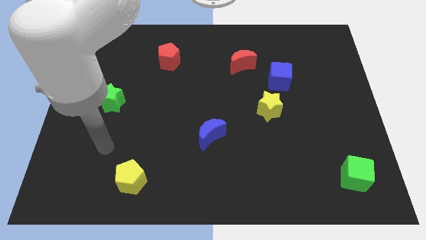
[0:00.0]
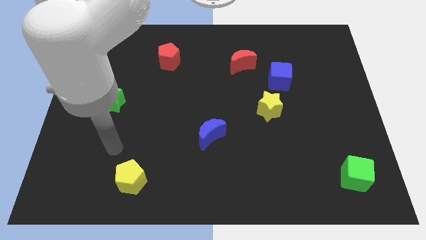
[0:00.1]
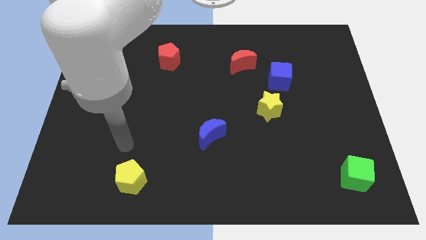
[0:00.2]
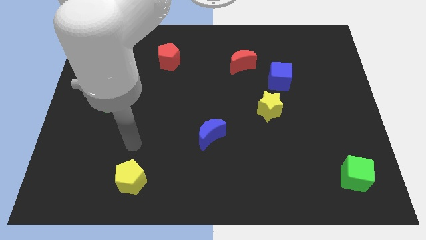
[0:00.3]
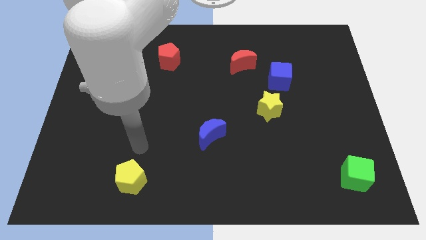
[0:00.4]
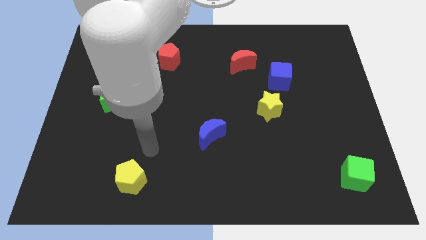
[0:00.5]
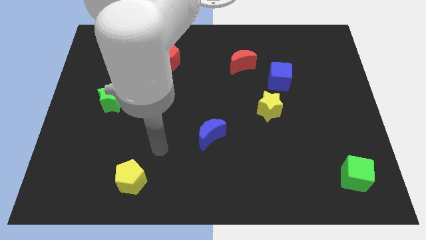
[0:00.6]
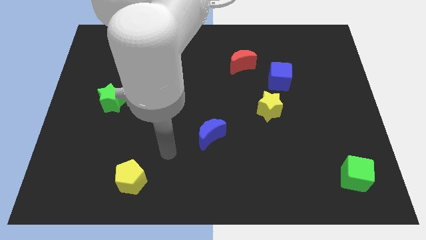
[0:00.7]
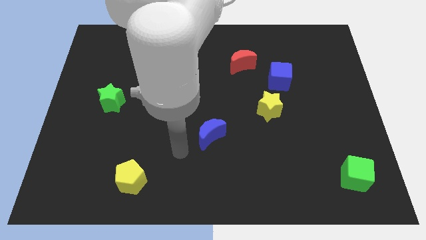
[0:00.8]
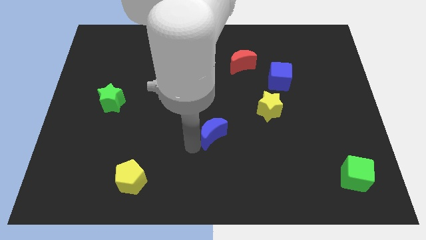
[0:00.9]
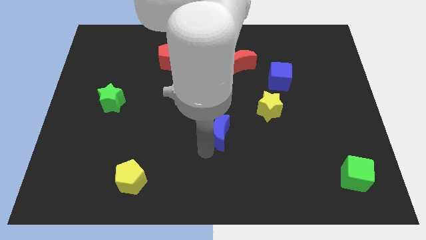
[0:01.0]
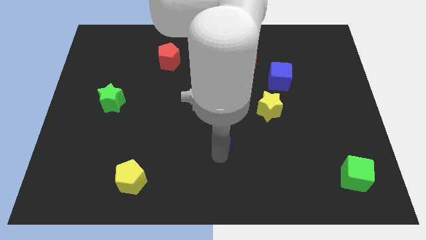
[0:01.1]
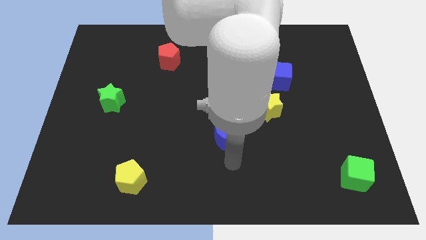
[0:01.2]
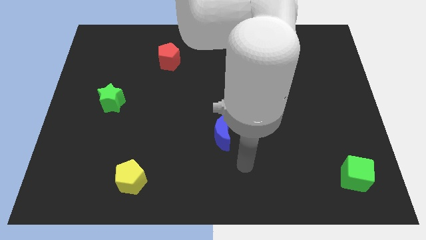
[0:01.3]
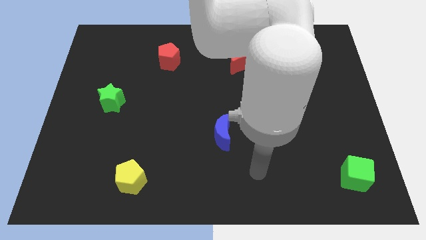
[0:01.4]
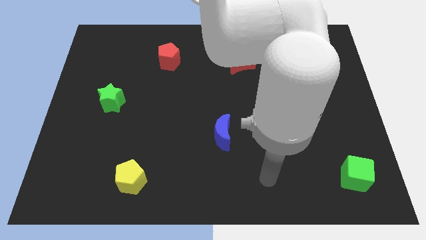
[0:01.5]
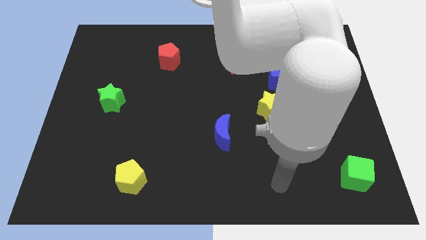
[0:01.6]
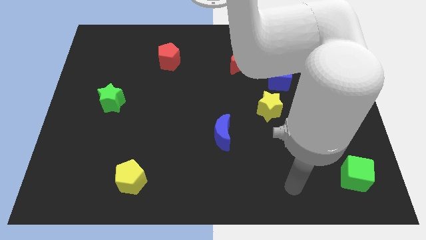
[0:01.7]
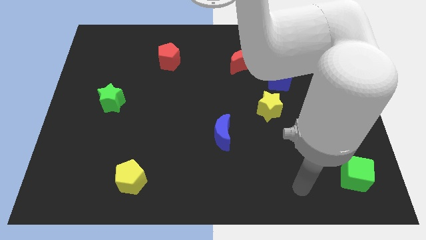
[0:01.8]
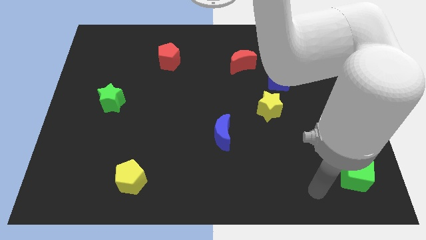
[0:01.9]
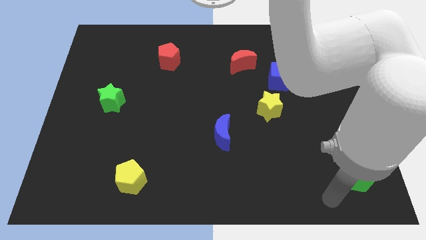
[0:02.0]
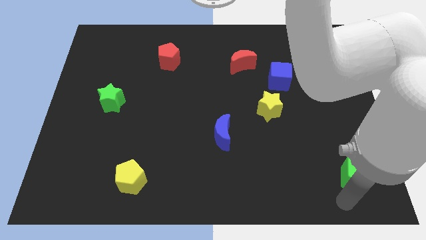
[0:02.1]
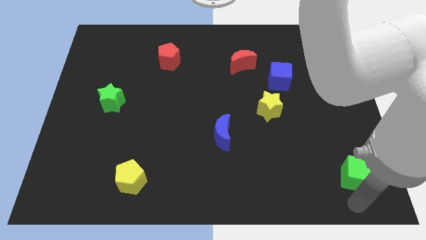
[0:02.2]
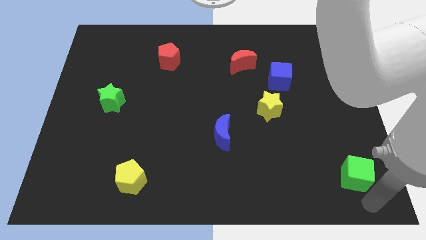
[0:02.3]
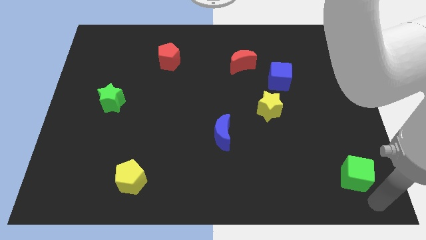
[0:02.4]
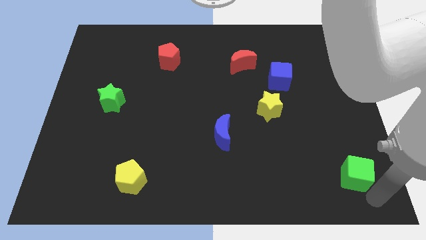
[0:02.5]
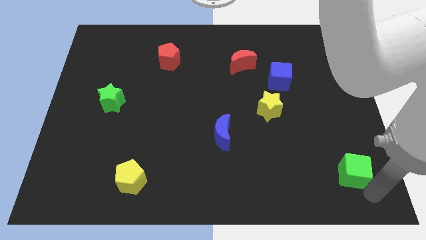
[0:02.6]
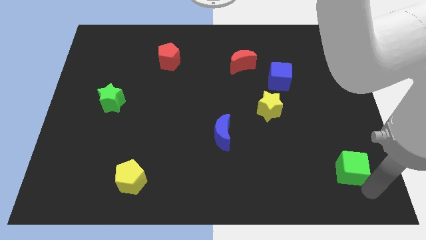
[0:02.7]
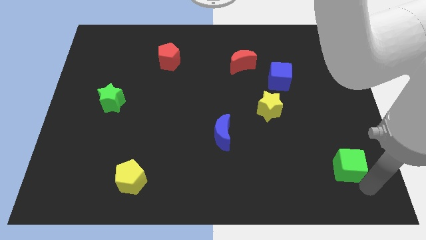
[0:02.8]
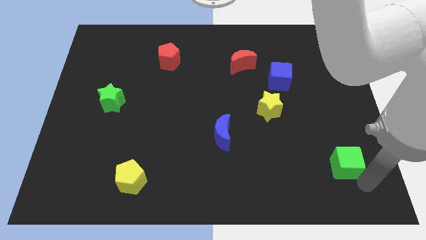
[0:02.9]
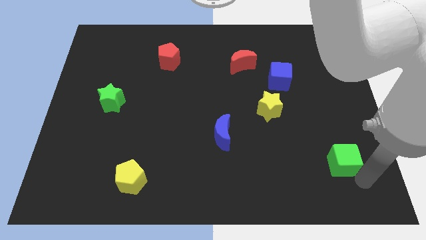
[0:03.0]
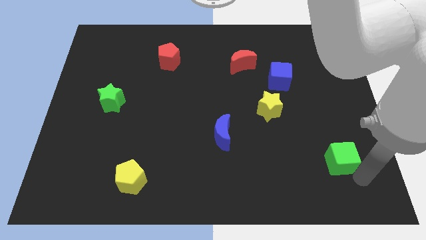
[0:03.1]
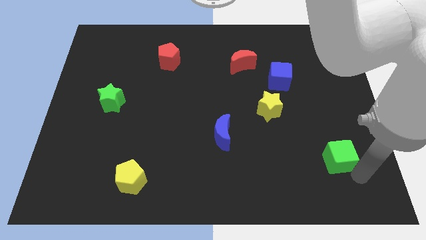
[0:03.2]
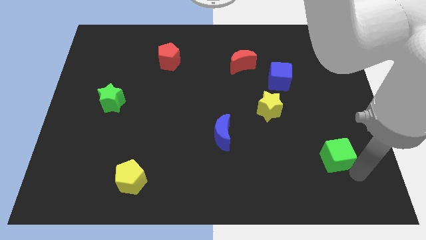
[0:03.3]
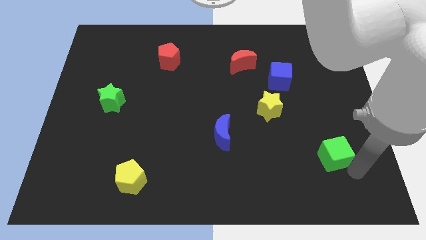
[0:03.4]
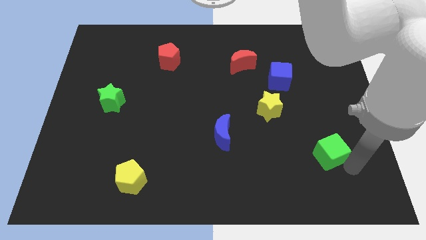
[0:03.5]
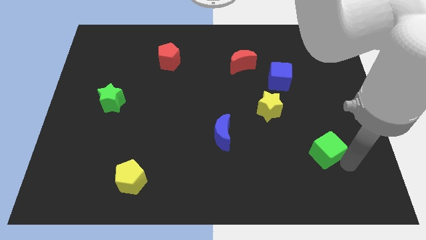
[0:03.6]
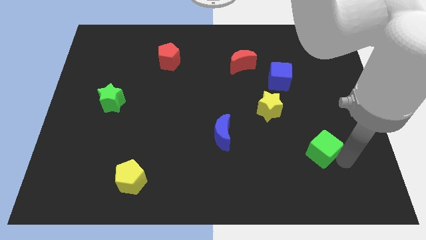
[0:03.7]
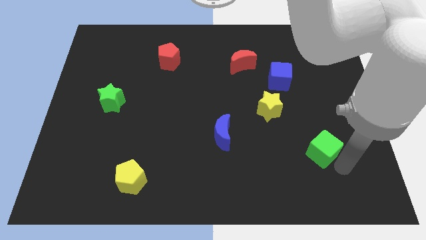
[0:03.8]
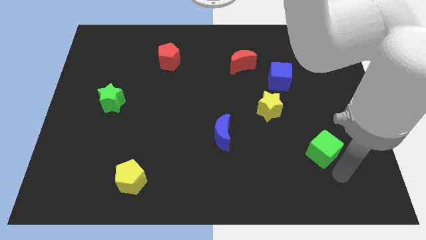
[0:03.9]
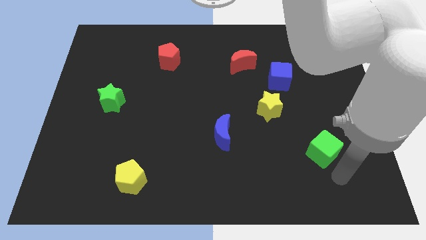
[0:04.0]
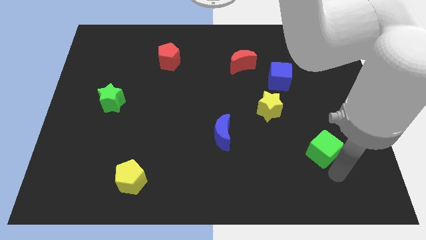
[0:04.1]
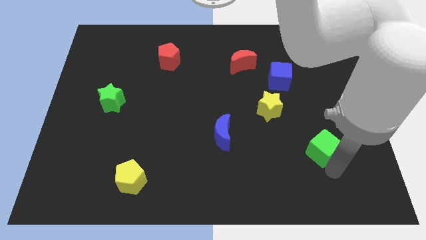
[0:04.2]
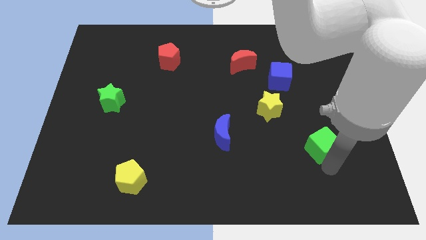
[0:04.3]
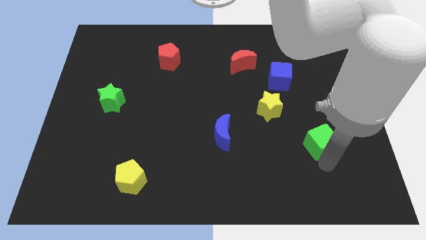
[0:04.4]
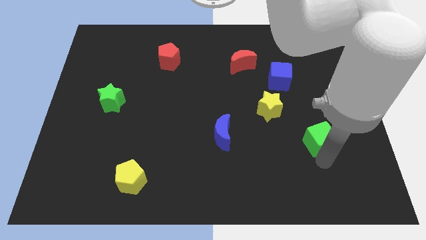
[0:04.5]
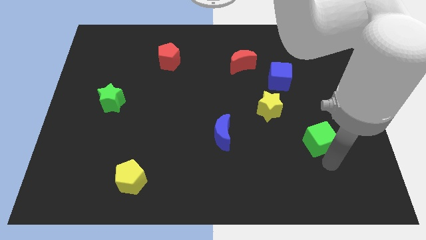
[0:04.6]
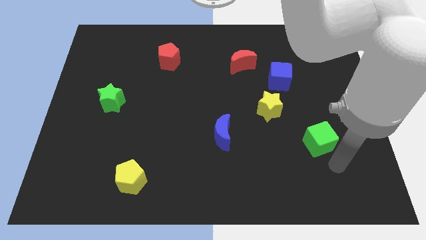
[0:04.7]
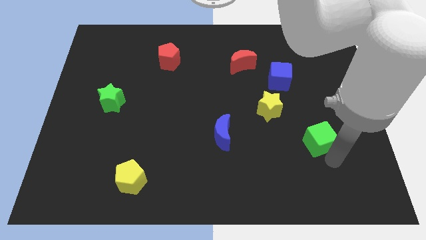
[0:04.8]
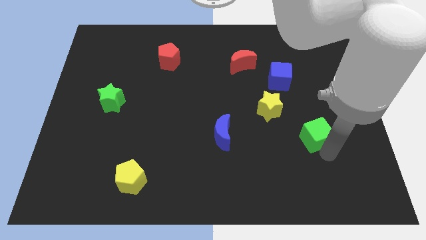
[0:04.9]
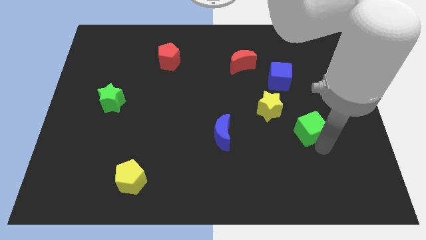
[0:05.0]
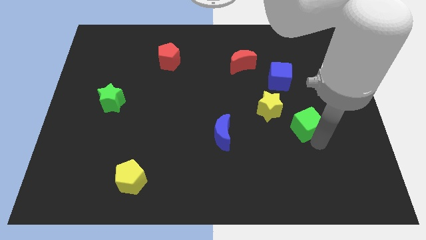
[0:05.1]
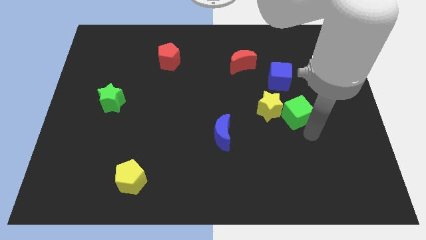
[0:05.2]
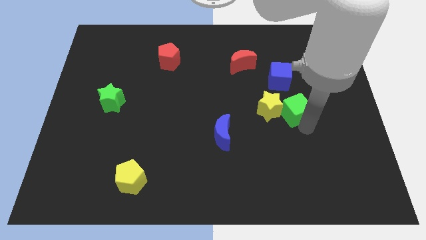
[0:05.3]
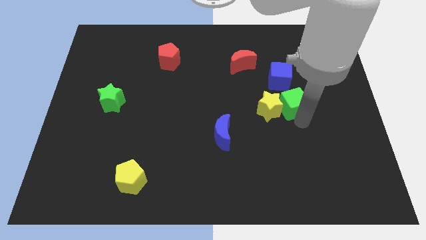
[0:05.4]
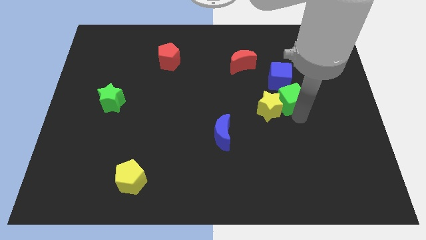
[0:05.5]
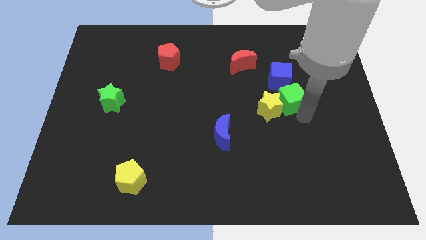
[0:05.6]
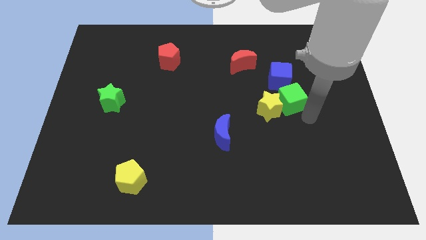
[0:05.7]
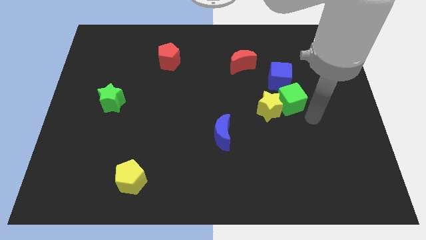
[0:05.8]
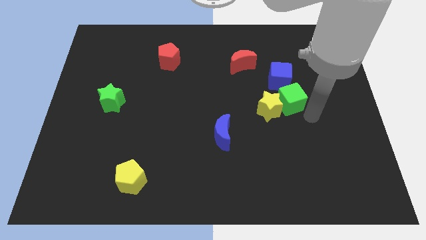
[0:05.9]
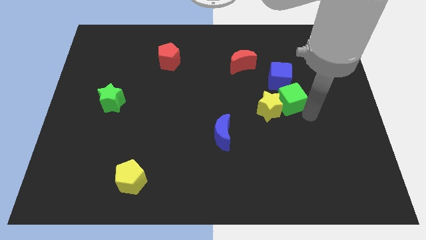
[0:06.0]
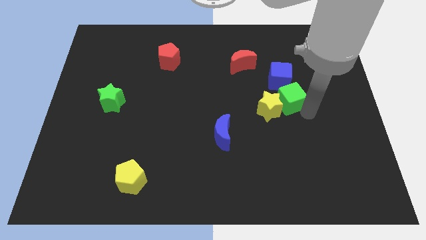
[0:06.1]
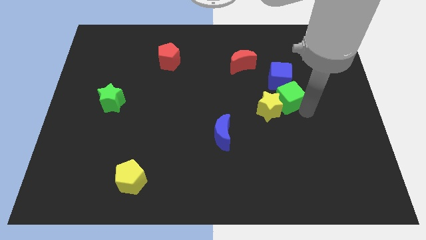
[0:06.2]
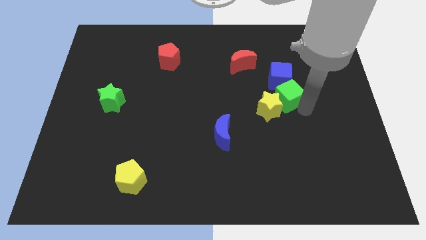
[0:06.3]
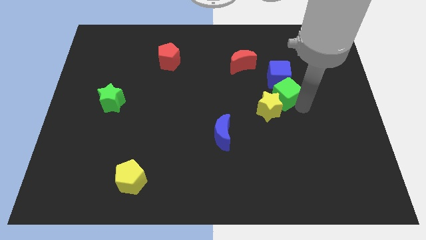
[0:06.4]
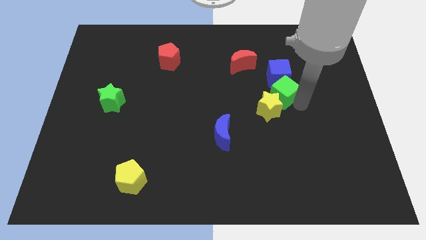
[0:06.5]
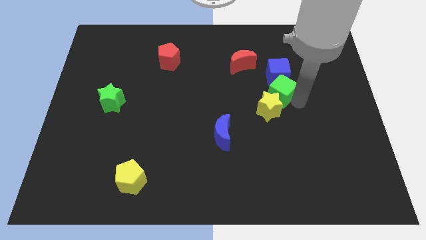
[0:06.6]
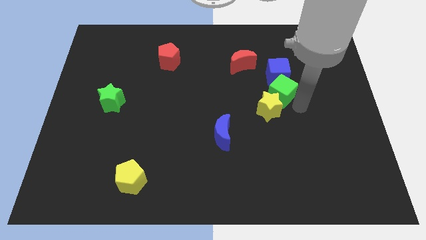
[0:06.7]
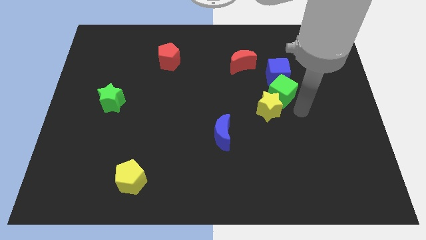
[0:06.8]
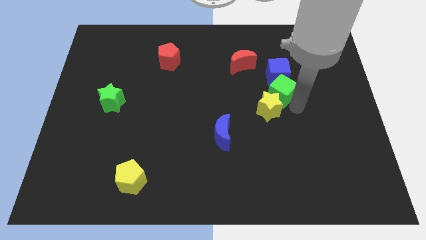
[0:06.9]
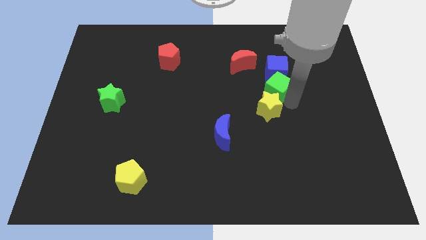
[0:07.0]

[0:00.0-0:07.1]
push the green cube to the bottom right of the red moon
